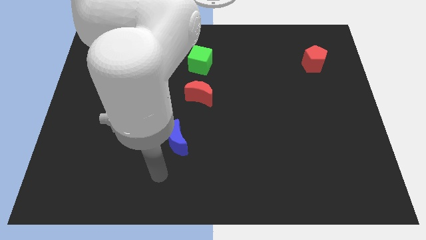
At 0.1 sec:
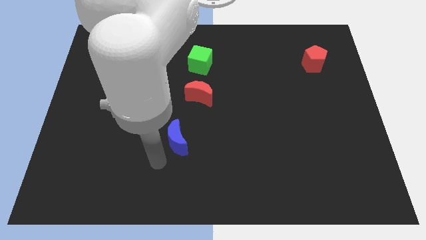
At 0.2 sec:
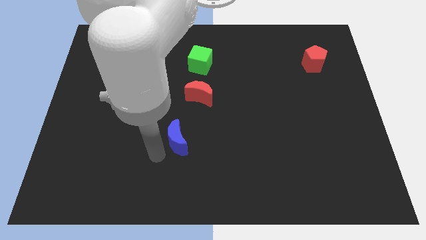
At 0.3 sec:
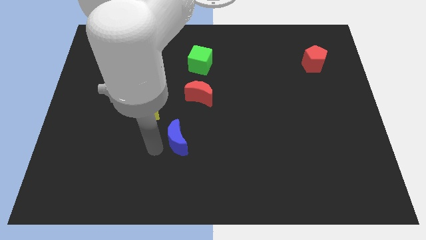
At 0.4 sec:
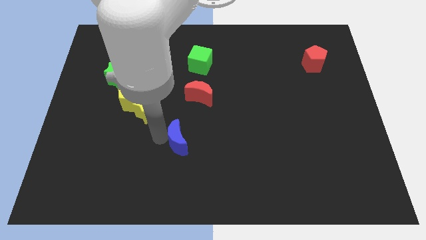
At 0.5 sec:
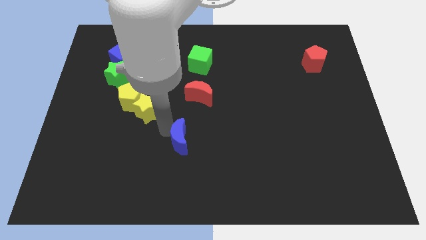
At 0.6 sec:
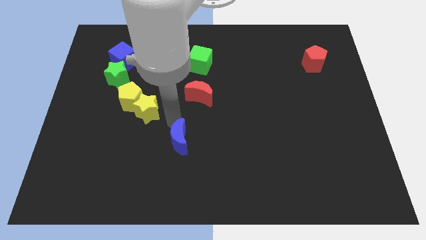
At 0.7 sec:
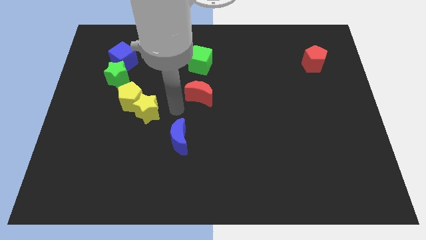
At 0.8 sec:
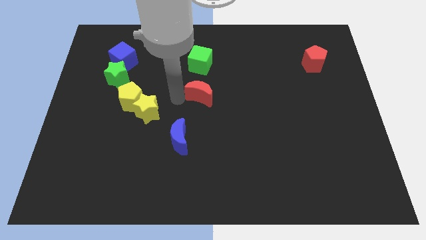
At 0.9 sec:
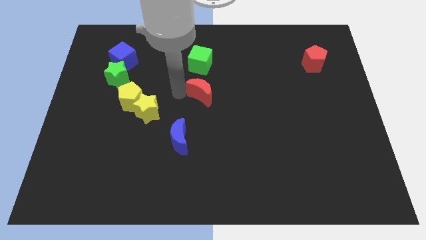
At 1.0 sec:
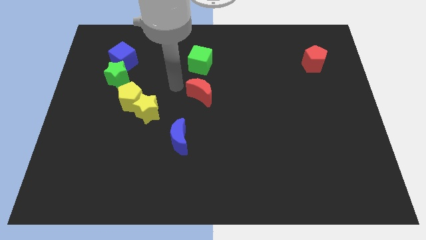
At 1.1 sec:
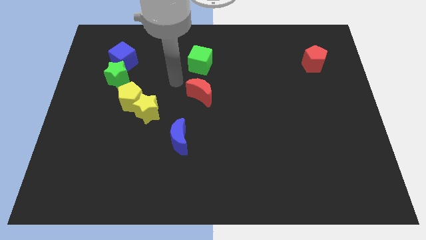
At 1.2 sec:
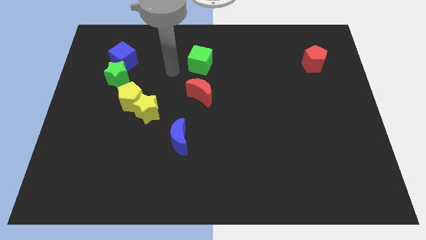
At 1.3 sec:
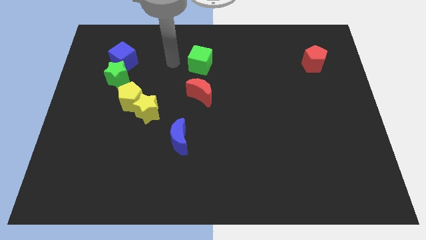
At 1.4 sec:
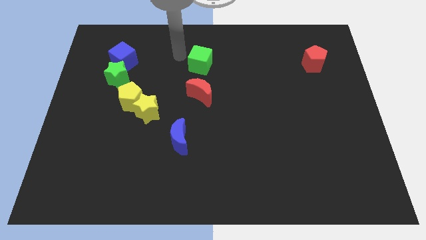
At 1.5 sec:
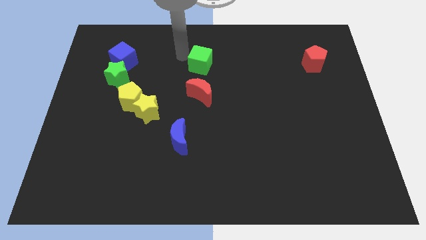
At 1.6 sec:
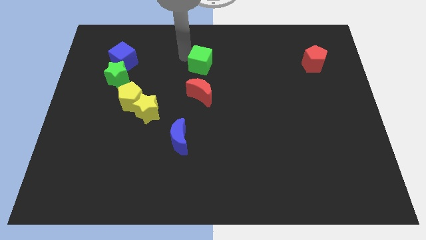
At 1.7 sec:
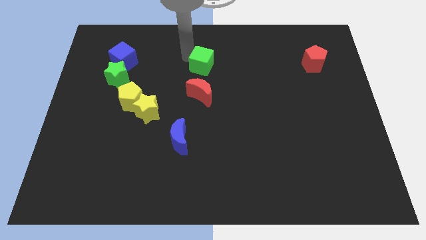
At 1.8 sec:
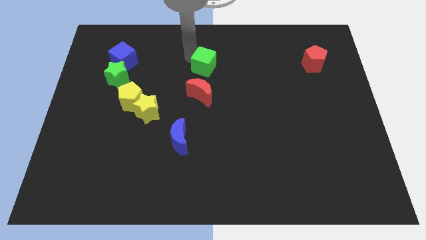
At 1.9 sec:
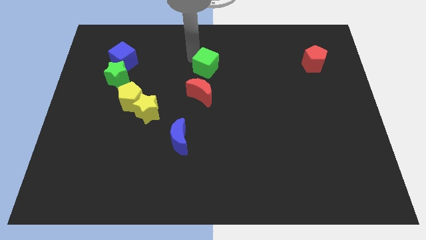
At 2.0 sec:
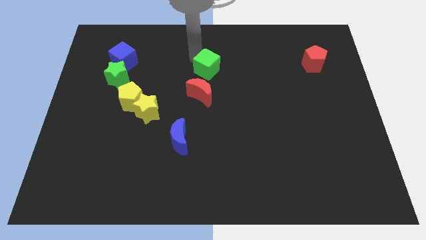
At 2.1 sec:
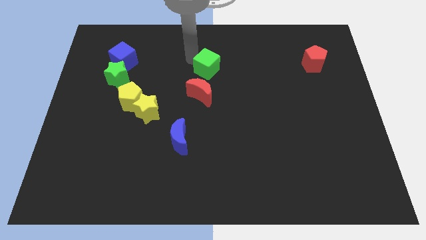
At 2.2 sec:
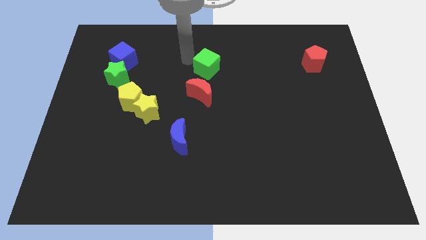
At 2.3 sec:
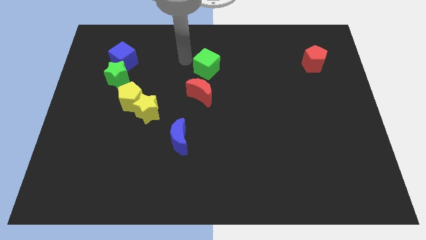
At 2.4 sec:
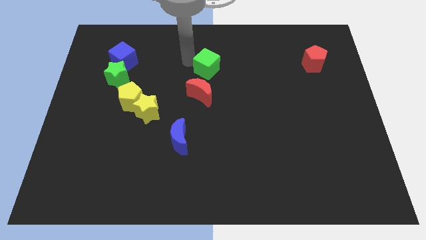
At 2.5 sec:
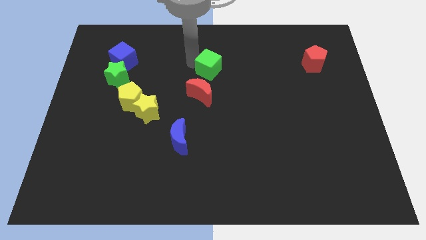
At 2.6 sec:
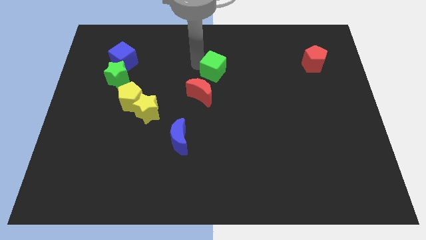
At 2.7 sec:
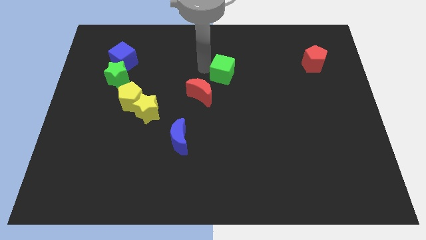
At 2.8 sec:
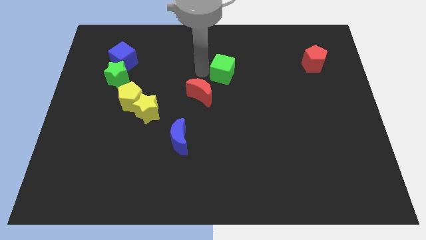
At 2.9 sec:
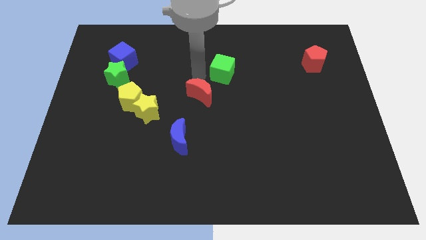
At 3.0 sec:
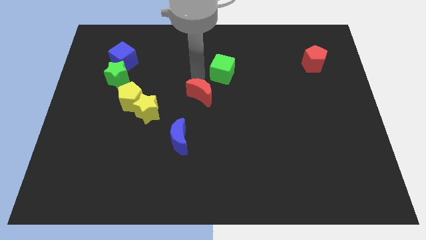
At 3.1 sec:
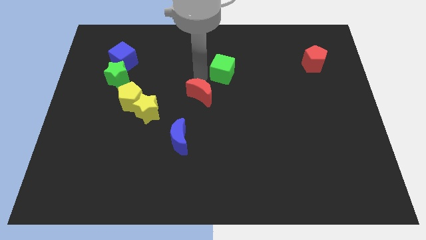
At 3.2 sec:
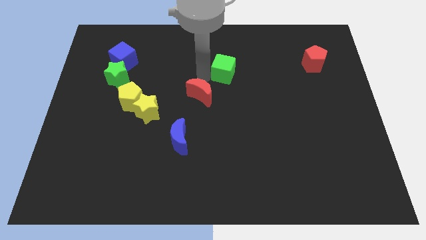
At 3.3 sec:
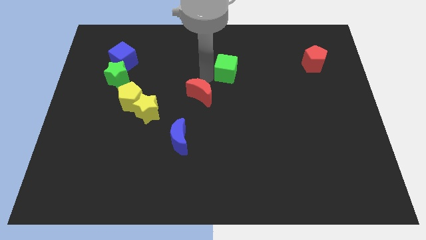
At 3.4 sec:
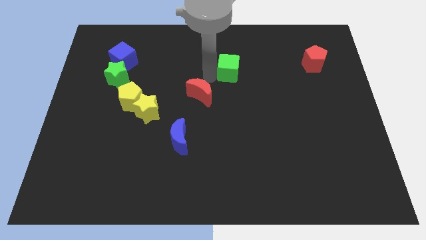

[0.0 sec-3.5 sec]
slightly move the green cube right

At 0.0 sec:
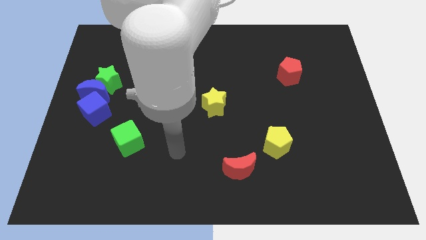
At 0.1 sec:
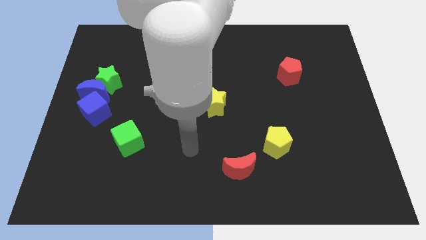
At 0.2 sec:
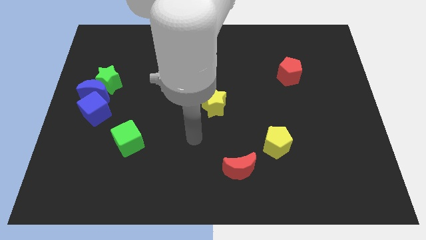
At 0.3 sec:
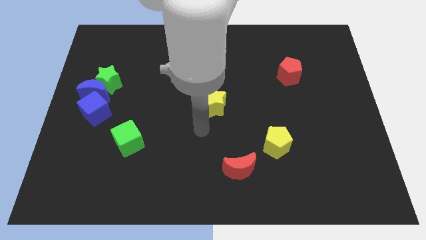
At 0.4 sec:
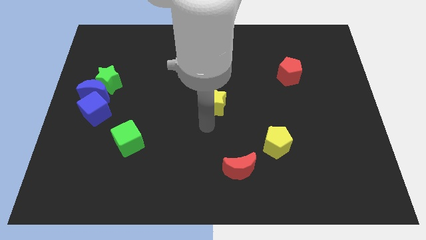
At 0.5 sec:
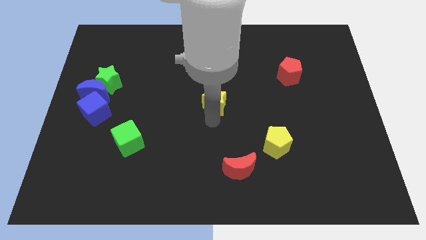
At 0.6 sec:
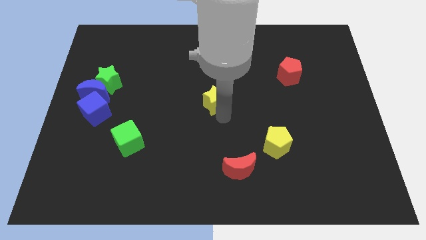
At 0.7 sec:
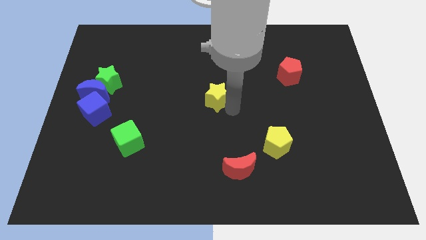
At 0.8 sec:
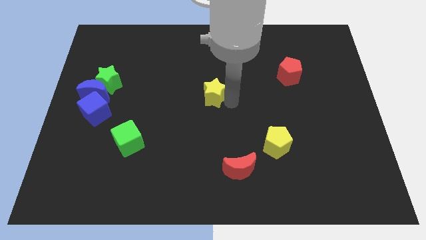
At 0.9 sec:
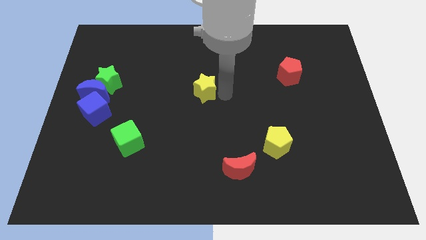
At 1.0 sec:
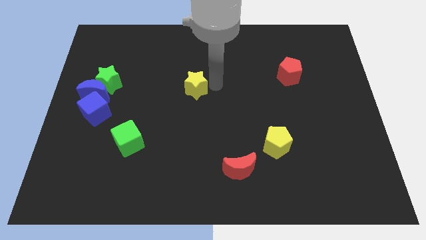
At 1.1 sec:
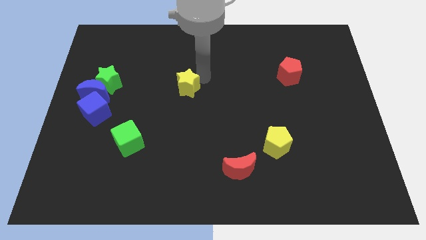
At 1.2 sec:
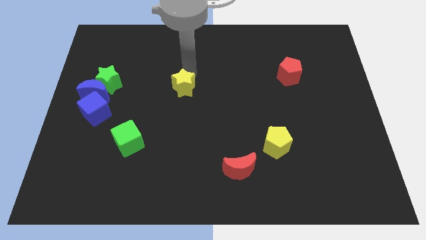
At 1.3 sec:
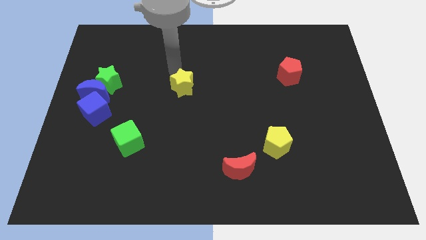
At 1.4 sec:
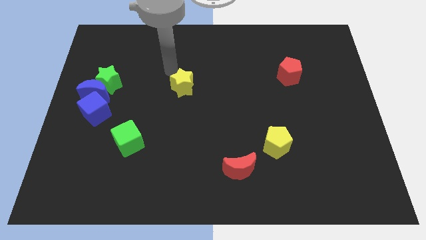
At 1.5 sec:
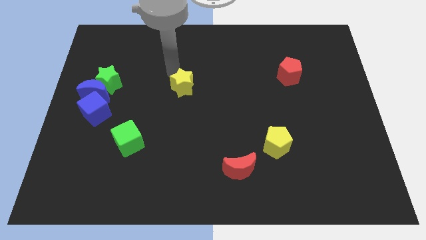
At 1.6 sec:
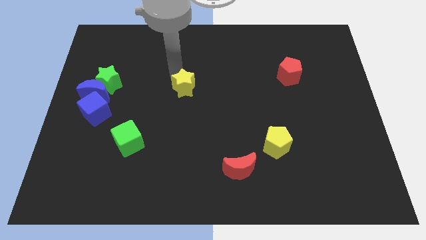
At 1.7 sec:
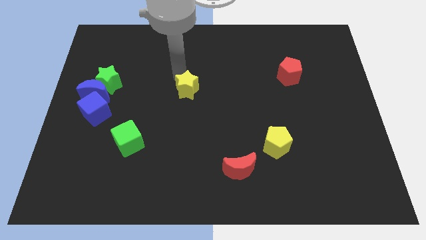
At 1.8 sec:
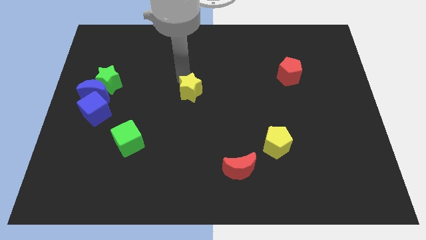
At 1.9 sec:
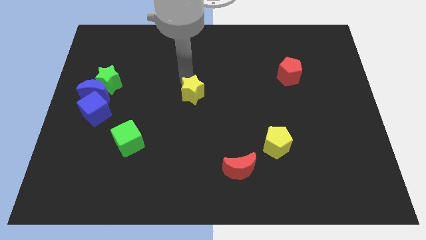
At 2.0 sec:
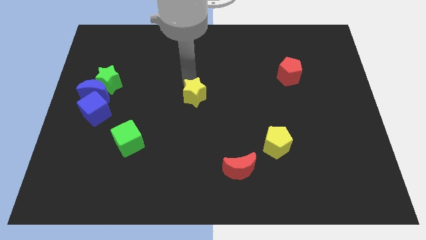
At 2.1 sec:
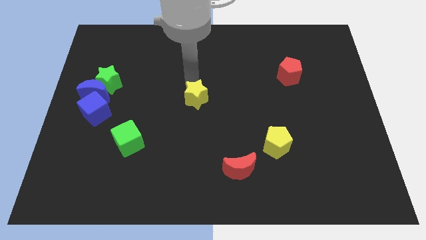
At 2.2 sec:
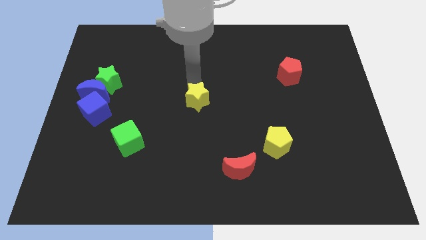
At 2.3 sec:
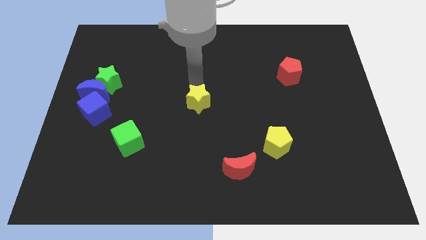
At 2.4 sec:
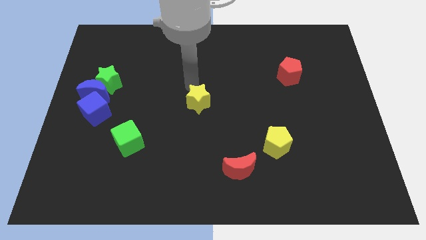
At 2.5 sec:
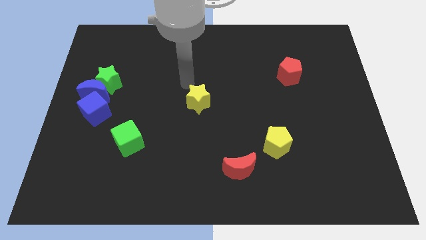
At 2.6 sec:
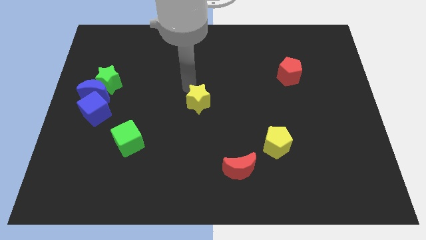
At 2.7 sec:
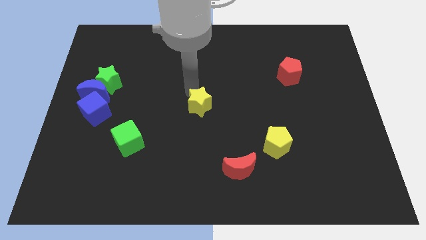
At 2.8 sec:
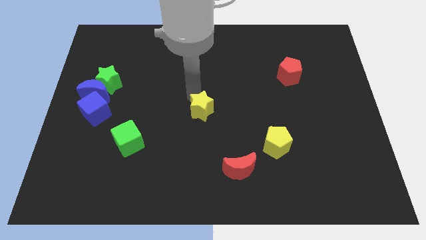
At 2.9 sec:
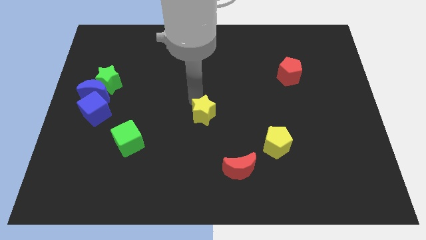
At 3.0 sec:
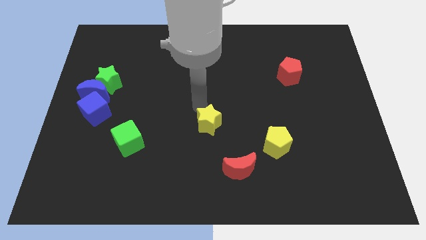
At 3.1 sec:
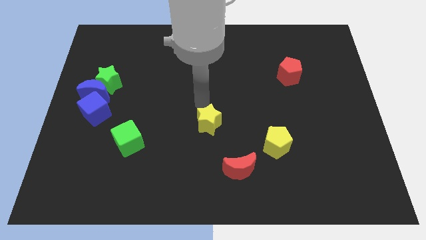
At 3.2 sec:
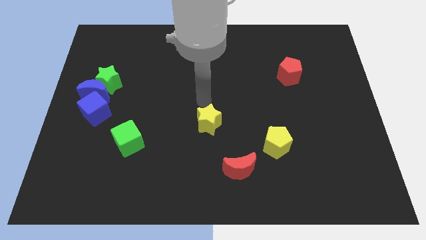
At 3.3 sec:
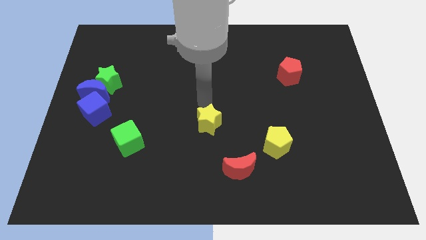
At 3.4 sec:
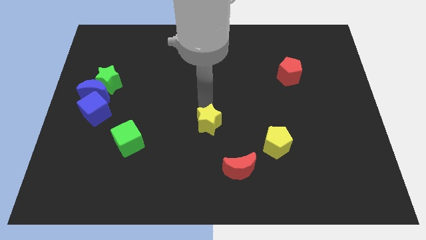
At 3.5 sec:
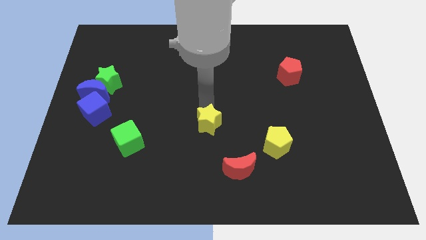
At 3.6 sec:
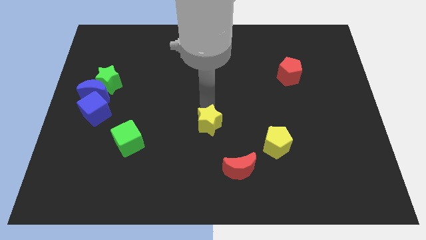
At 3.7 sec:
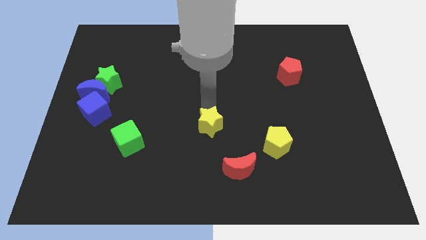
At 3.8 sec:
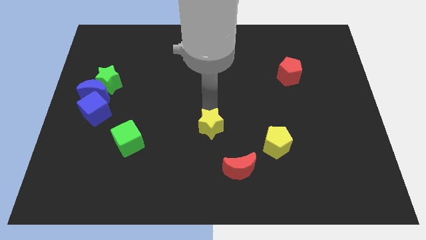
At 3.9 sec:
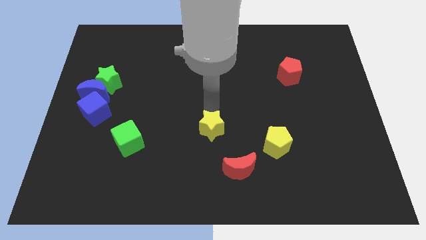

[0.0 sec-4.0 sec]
slightly push the yellow star down

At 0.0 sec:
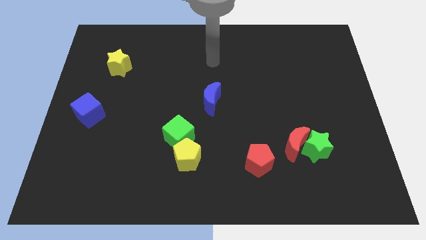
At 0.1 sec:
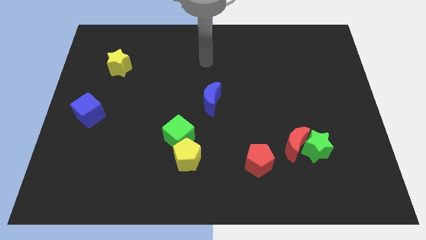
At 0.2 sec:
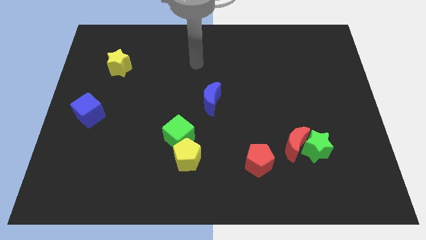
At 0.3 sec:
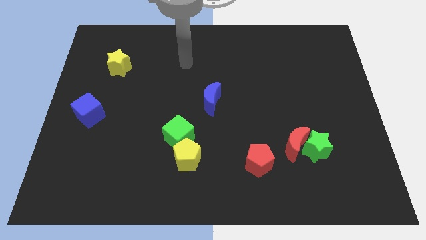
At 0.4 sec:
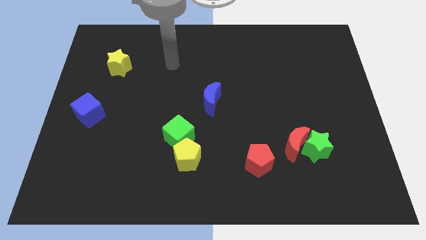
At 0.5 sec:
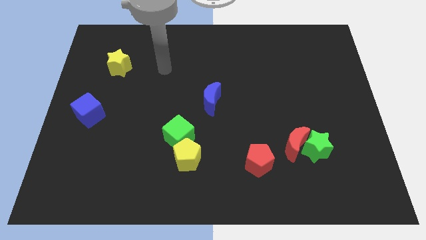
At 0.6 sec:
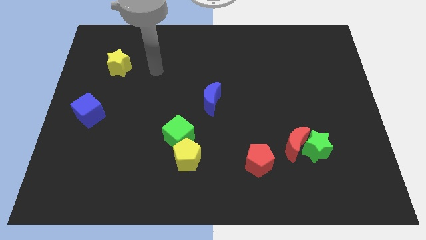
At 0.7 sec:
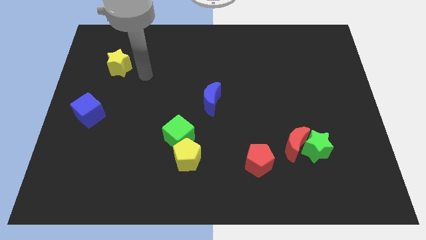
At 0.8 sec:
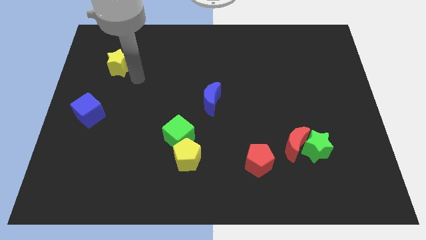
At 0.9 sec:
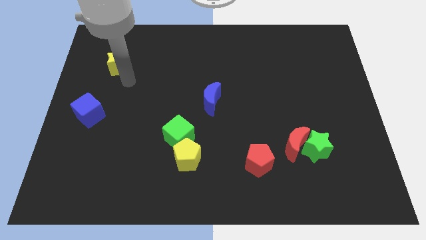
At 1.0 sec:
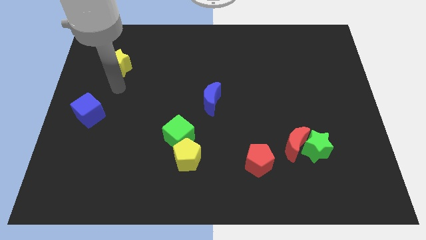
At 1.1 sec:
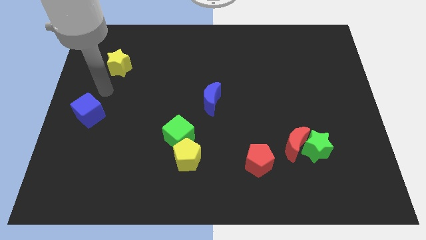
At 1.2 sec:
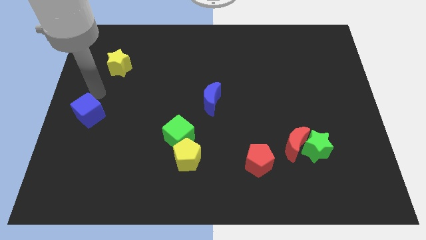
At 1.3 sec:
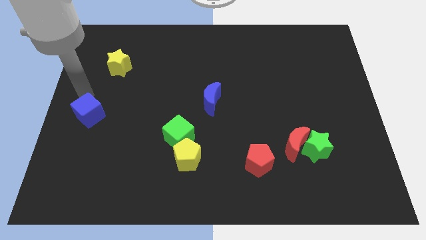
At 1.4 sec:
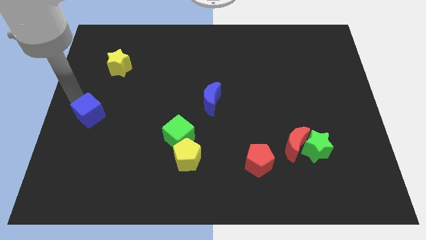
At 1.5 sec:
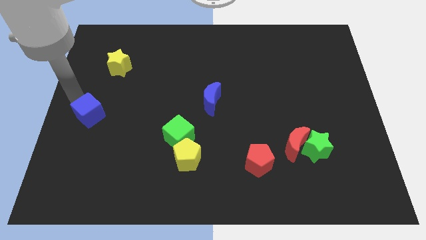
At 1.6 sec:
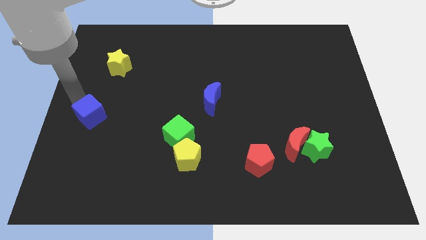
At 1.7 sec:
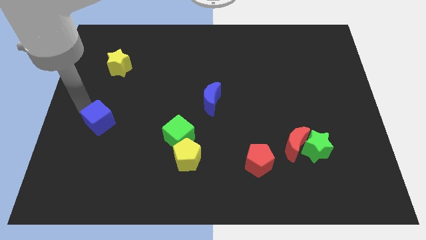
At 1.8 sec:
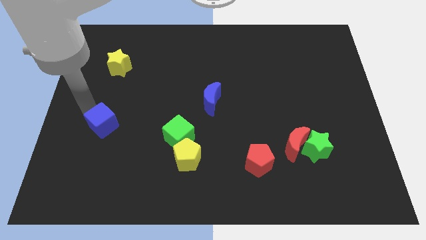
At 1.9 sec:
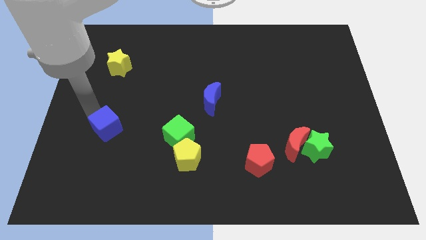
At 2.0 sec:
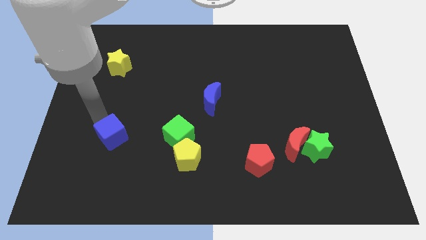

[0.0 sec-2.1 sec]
slightly move the blue cube diagonally downwards and to the right
